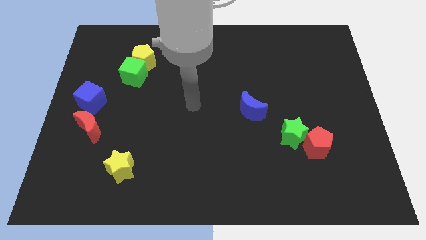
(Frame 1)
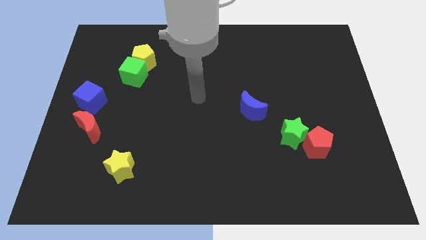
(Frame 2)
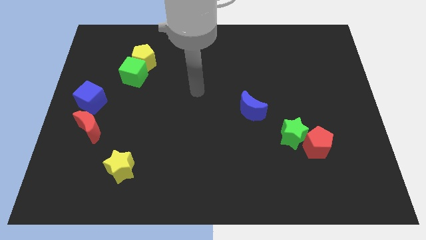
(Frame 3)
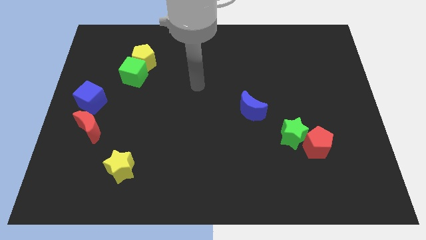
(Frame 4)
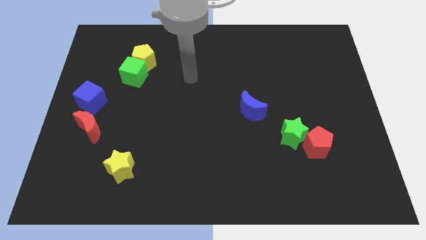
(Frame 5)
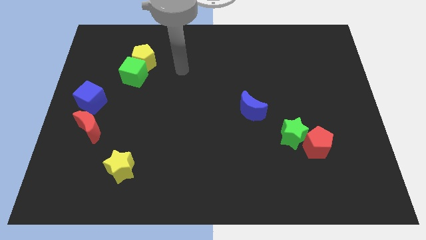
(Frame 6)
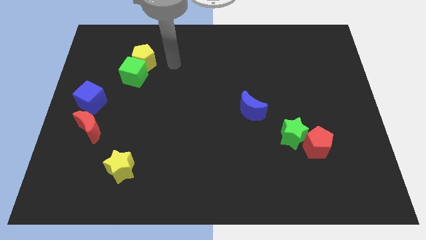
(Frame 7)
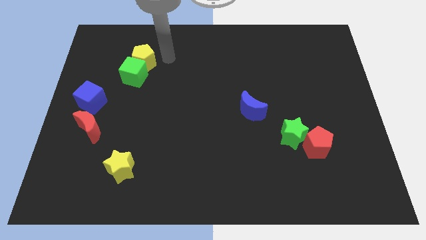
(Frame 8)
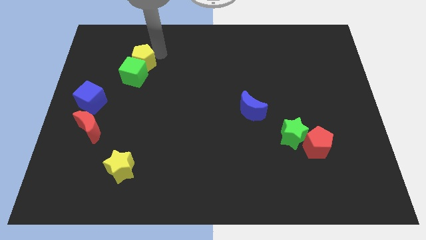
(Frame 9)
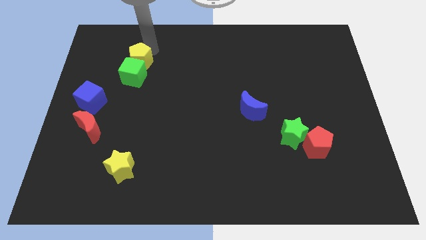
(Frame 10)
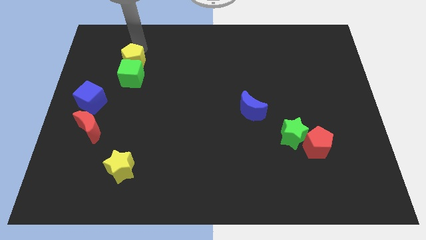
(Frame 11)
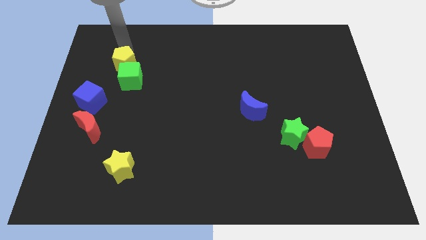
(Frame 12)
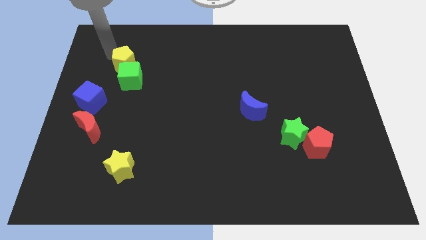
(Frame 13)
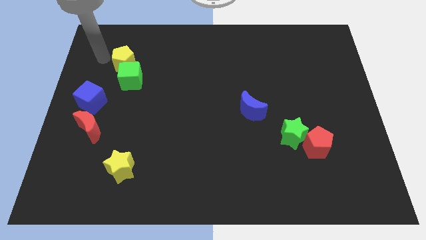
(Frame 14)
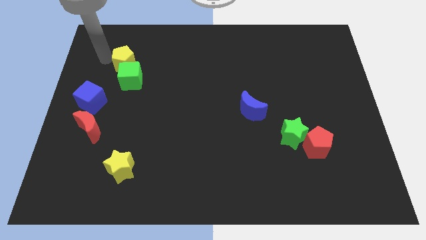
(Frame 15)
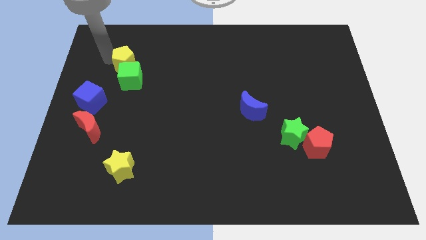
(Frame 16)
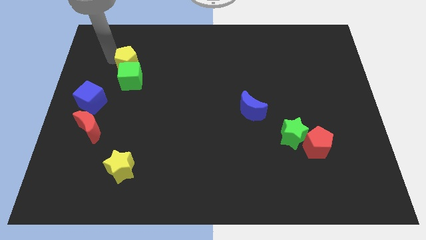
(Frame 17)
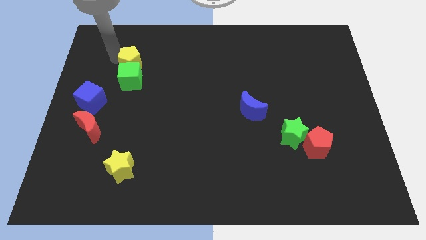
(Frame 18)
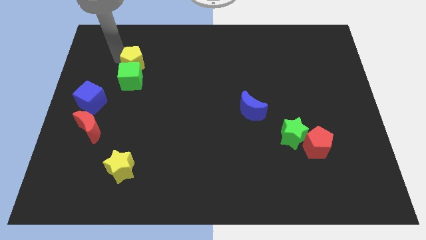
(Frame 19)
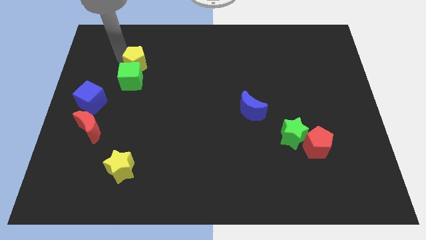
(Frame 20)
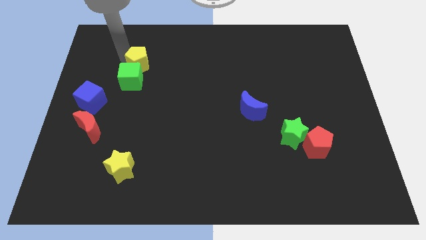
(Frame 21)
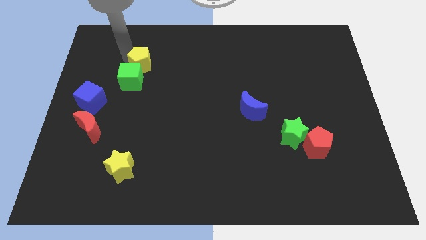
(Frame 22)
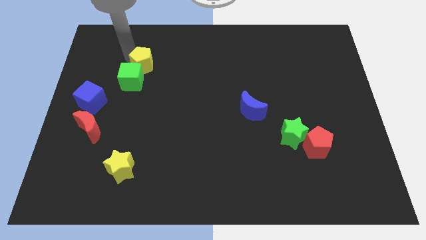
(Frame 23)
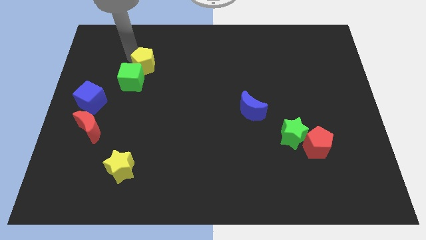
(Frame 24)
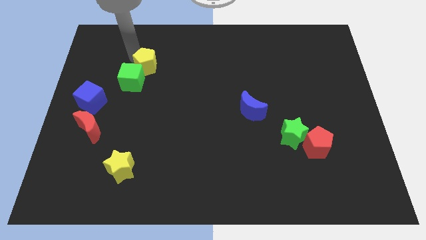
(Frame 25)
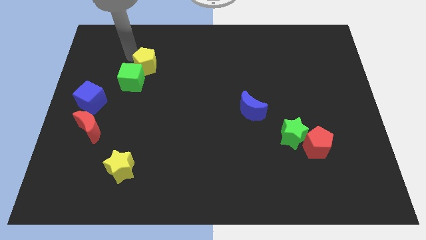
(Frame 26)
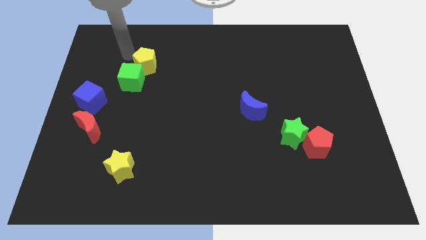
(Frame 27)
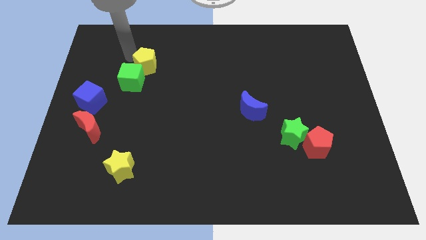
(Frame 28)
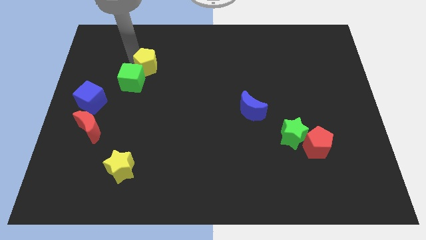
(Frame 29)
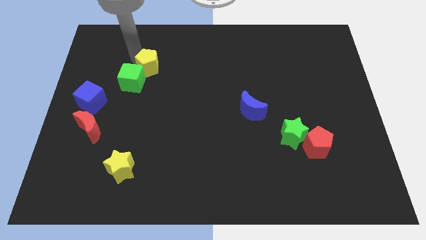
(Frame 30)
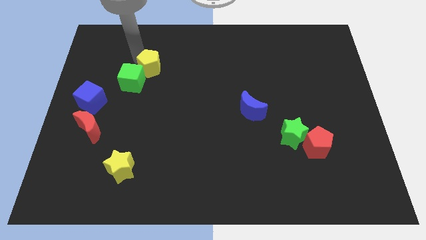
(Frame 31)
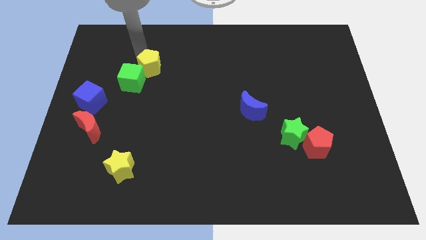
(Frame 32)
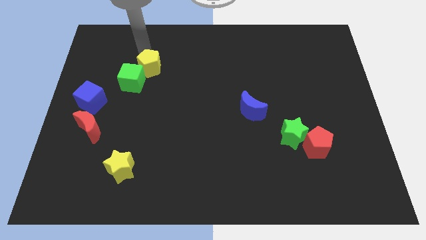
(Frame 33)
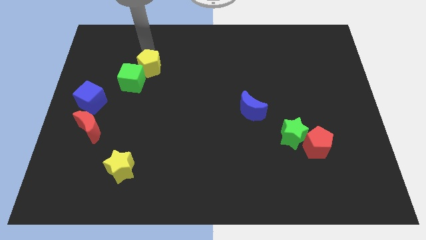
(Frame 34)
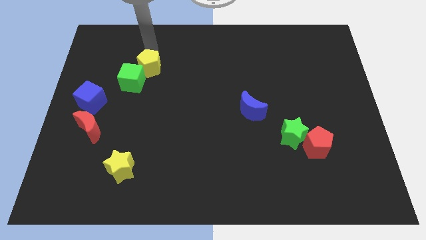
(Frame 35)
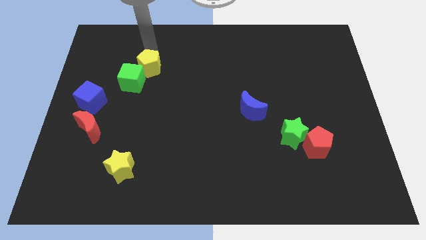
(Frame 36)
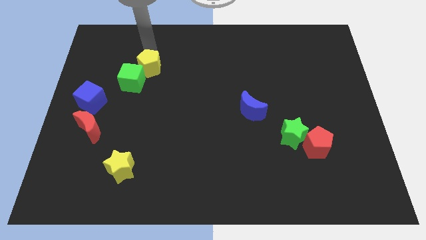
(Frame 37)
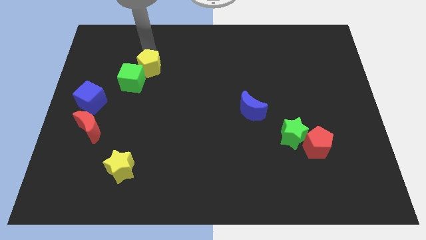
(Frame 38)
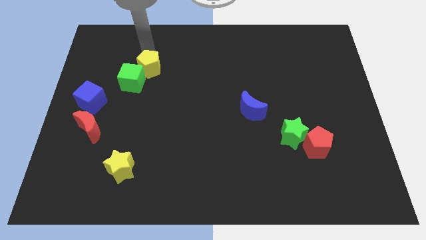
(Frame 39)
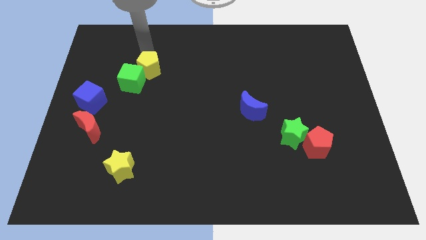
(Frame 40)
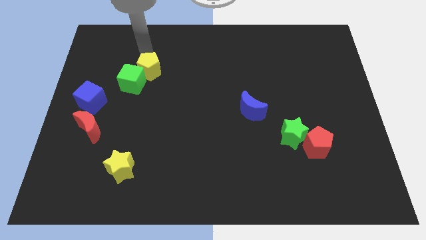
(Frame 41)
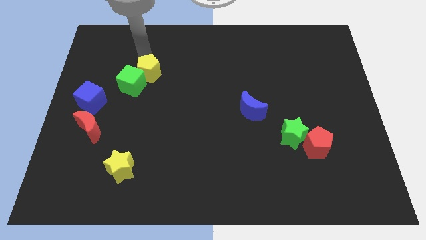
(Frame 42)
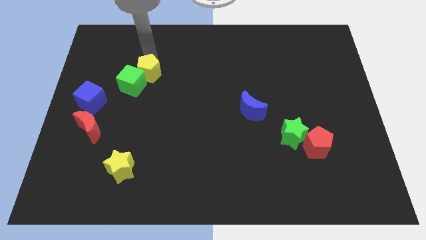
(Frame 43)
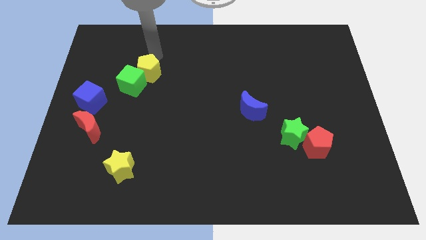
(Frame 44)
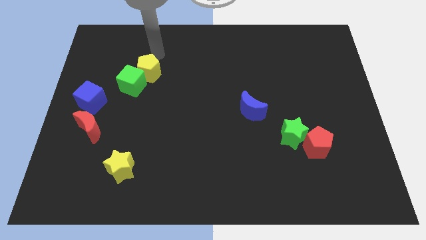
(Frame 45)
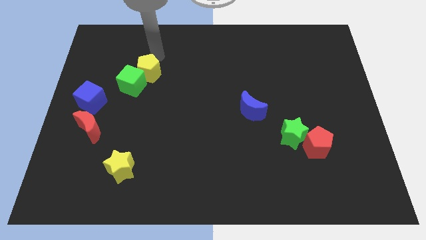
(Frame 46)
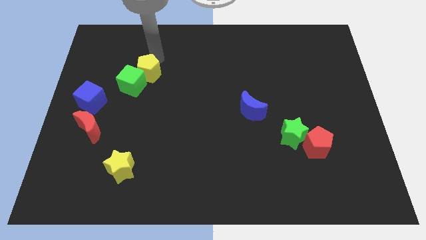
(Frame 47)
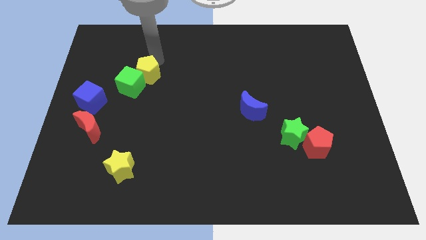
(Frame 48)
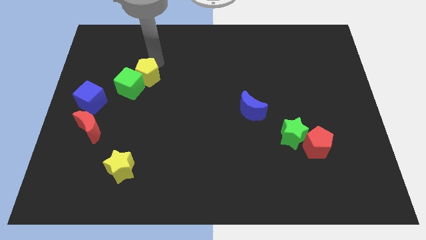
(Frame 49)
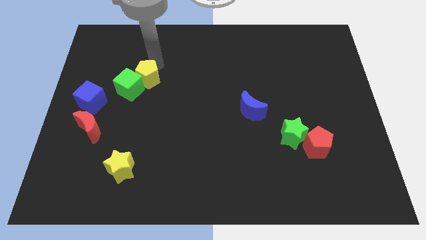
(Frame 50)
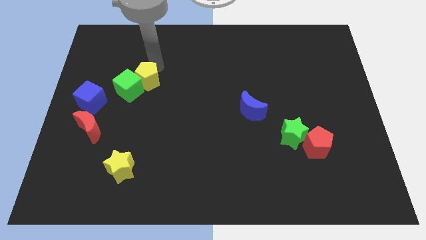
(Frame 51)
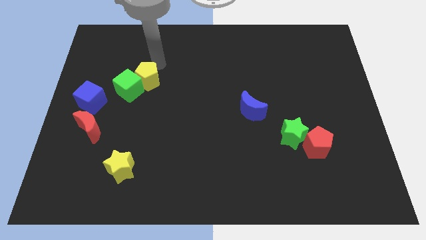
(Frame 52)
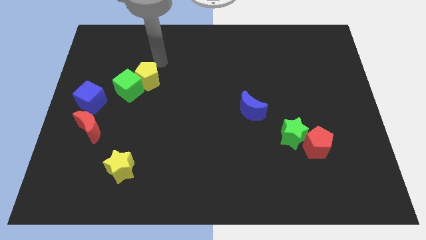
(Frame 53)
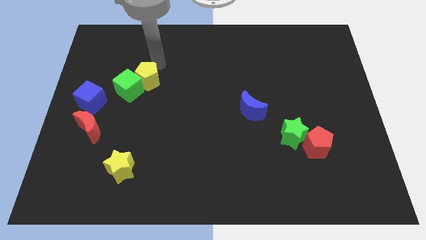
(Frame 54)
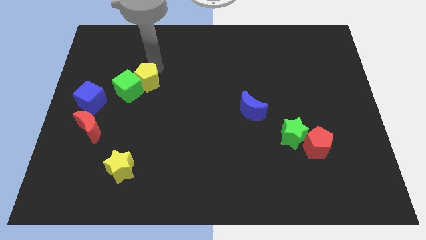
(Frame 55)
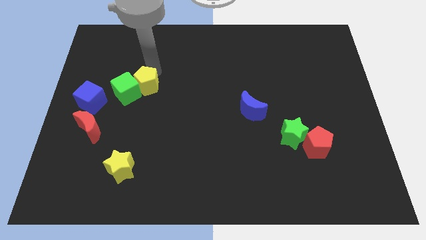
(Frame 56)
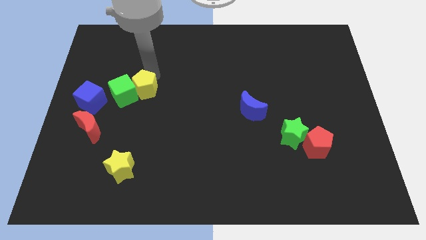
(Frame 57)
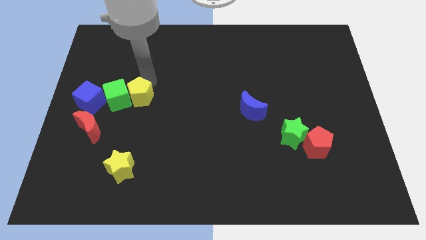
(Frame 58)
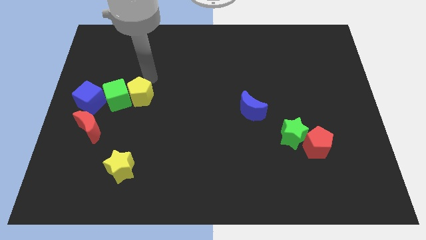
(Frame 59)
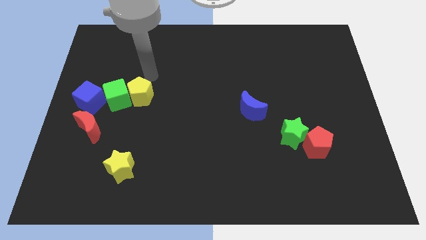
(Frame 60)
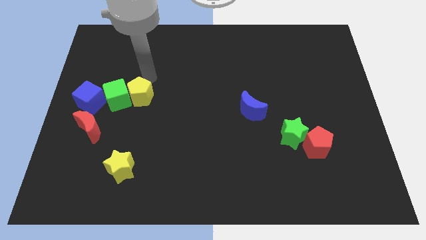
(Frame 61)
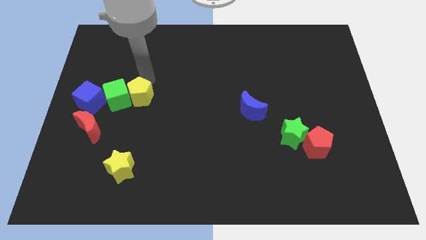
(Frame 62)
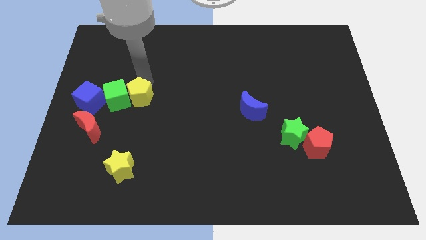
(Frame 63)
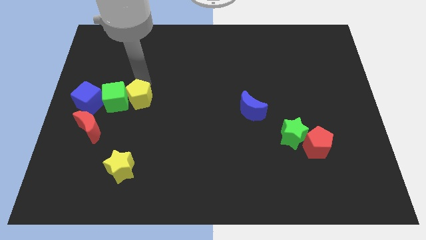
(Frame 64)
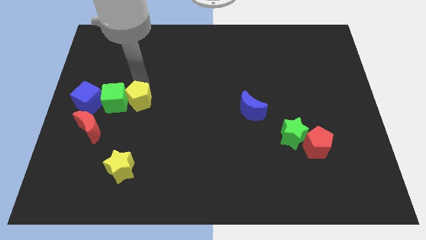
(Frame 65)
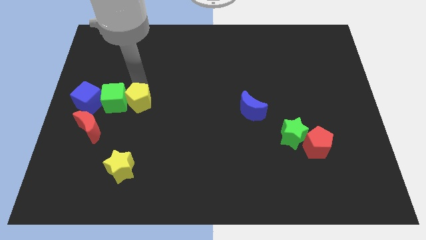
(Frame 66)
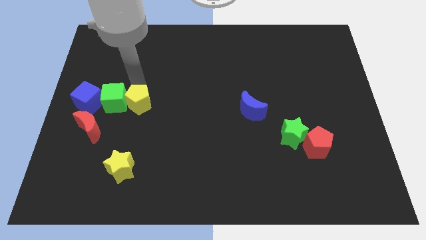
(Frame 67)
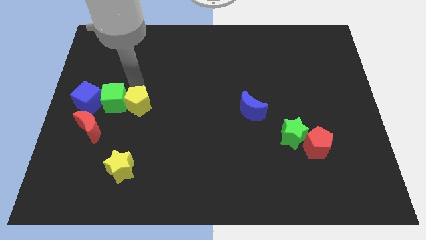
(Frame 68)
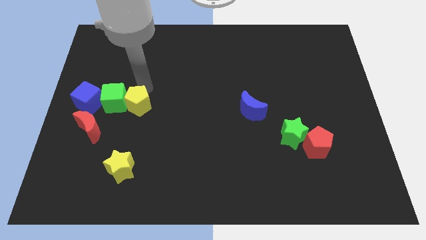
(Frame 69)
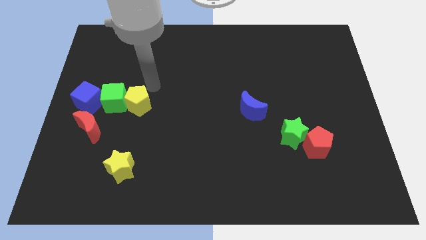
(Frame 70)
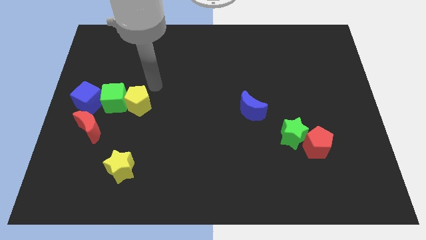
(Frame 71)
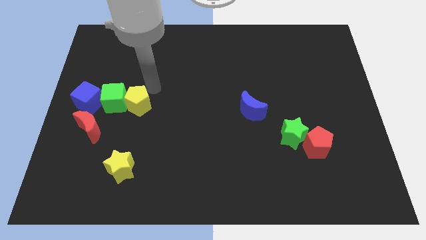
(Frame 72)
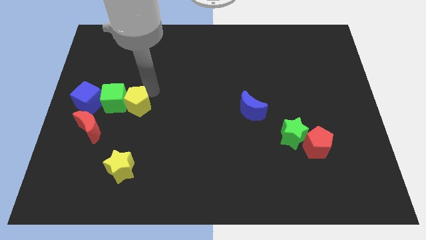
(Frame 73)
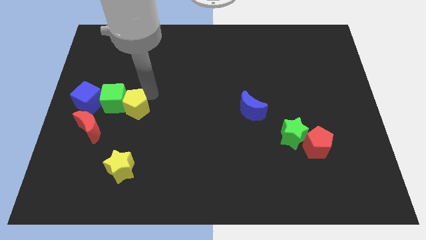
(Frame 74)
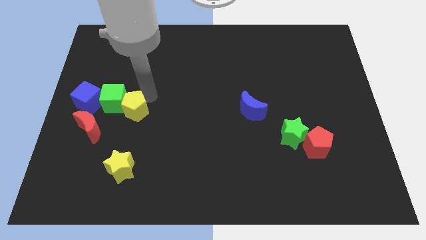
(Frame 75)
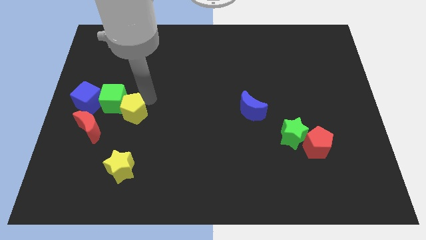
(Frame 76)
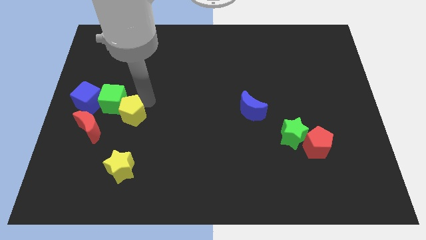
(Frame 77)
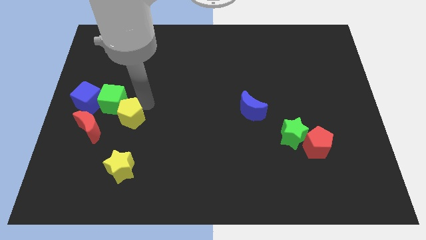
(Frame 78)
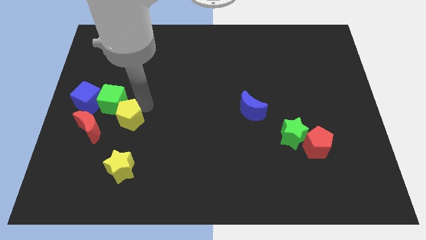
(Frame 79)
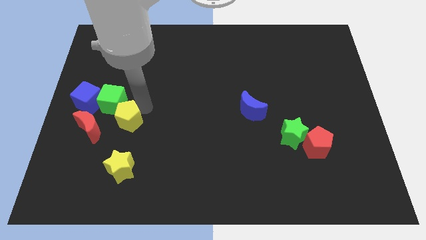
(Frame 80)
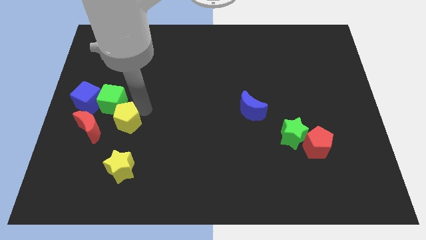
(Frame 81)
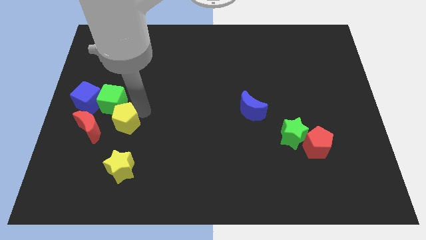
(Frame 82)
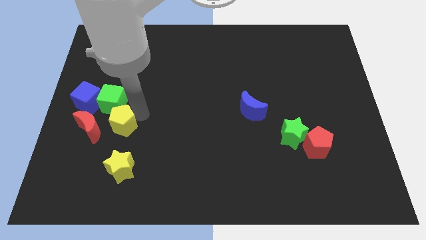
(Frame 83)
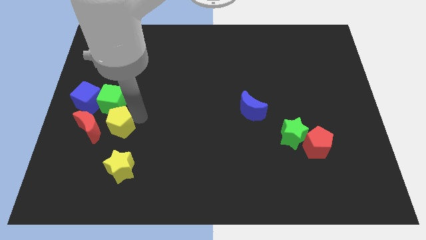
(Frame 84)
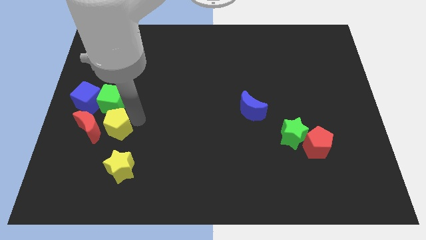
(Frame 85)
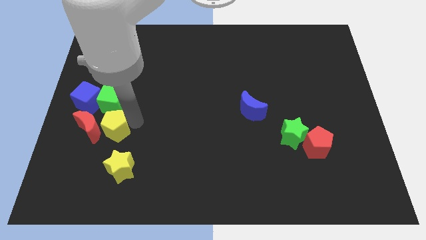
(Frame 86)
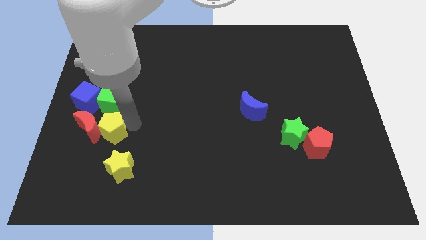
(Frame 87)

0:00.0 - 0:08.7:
move the yellow pentagon diagonally up and to the left of the yellow star
